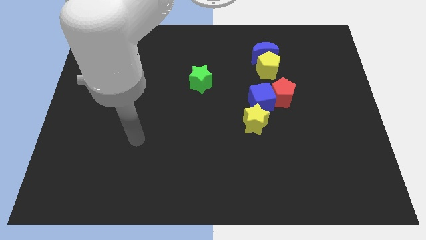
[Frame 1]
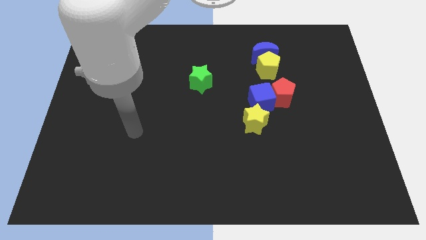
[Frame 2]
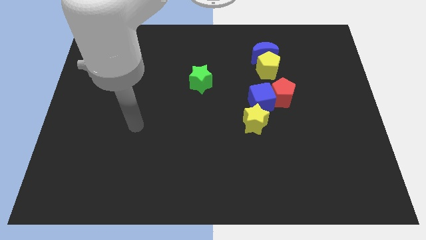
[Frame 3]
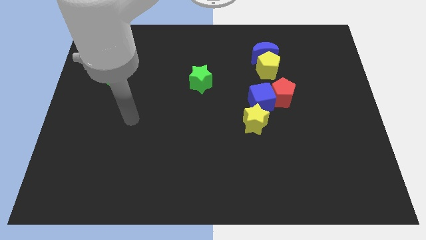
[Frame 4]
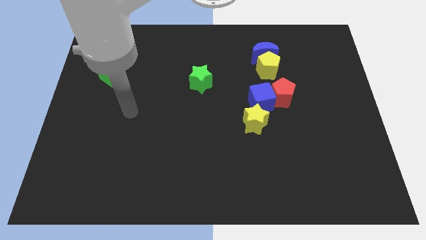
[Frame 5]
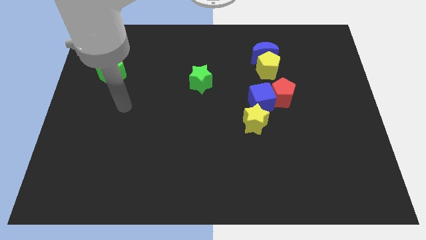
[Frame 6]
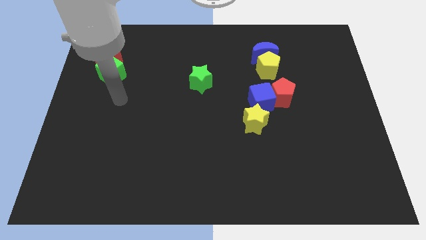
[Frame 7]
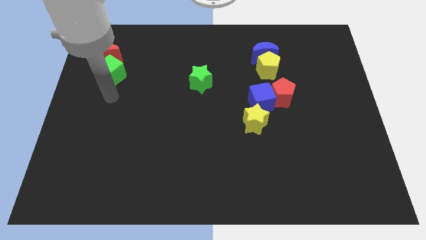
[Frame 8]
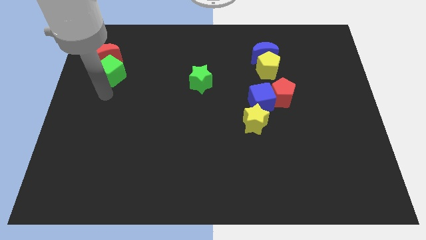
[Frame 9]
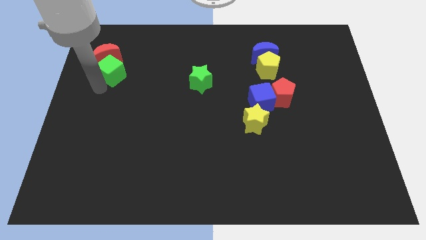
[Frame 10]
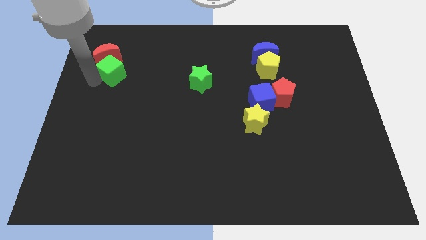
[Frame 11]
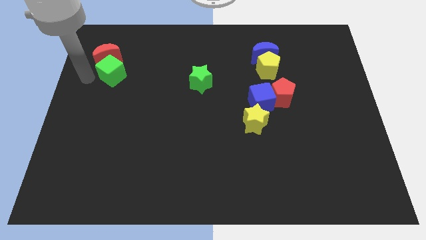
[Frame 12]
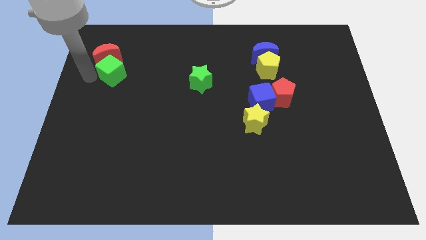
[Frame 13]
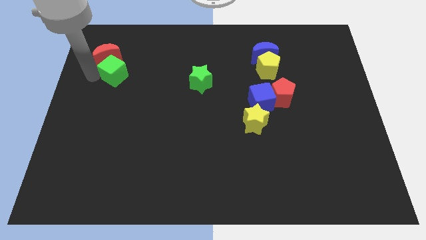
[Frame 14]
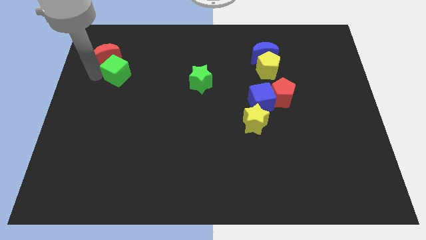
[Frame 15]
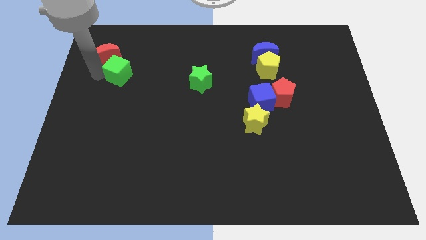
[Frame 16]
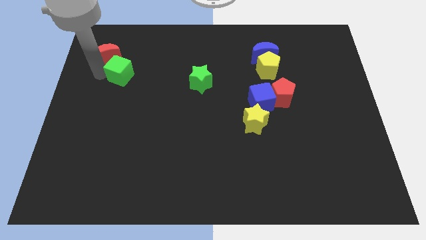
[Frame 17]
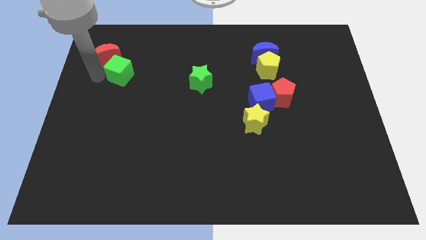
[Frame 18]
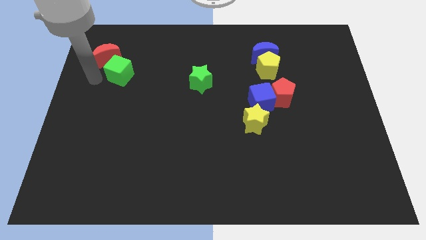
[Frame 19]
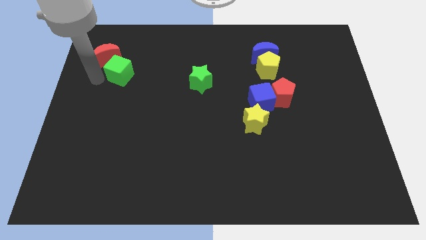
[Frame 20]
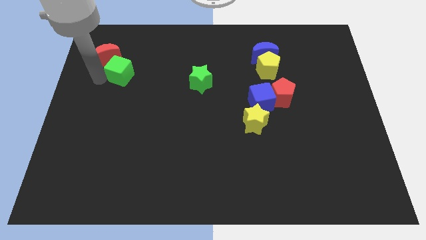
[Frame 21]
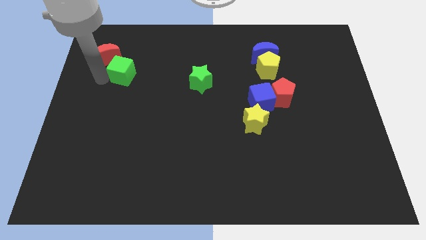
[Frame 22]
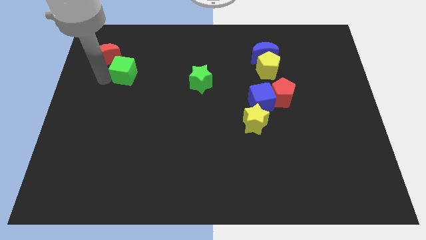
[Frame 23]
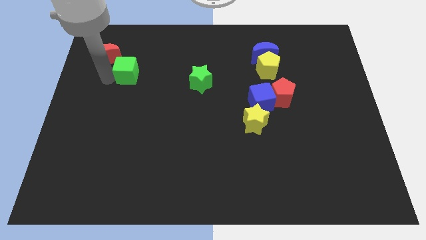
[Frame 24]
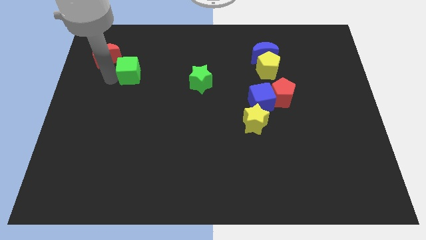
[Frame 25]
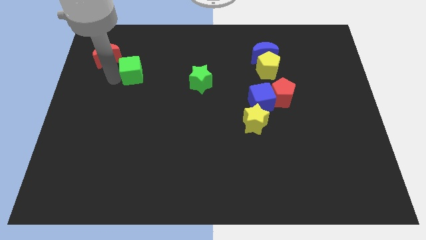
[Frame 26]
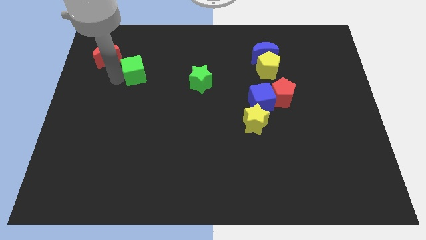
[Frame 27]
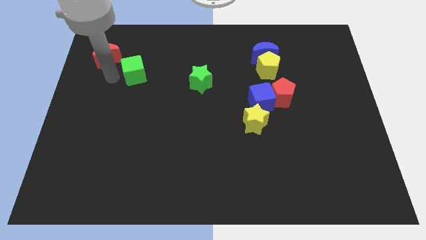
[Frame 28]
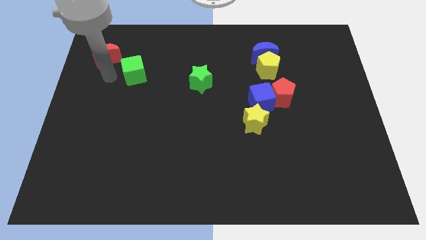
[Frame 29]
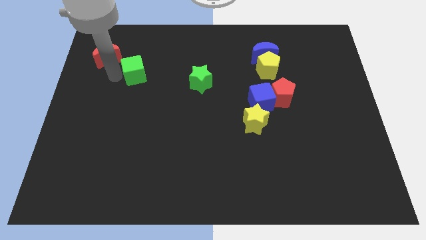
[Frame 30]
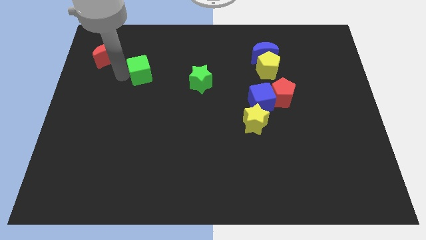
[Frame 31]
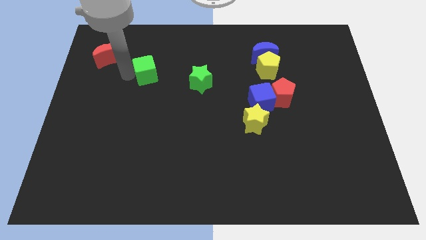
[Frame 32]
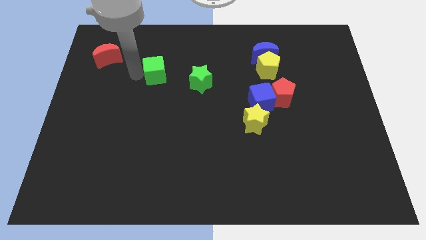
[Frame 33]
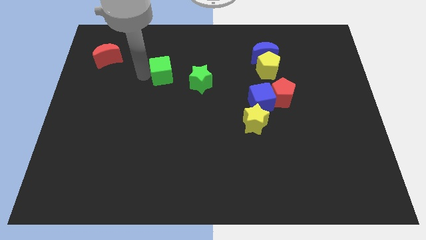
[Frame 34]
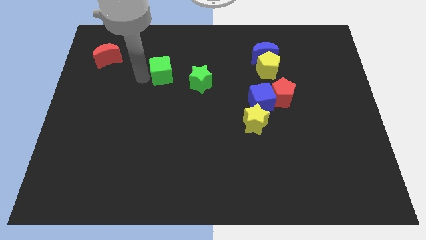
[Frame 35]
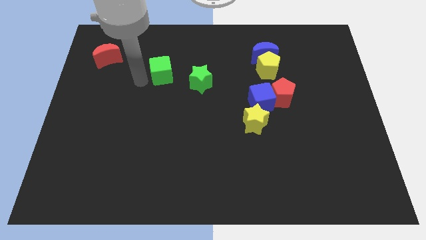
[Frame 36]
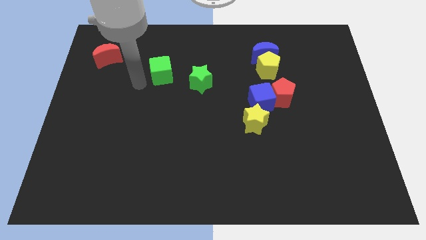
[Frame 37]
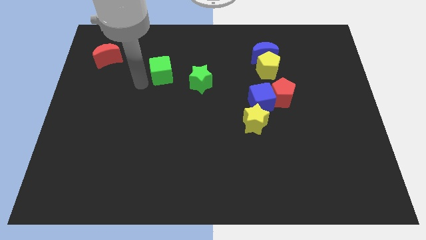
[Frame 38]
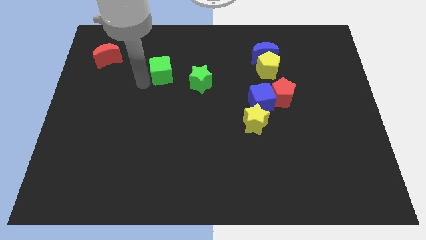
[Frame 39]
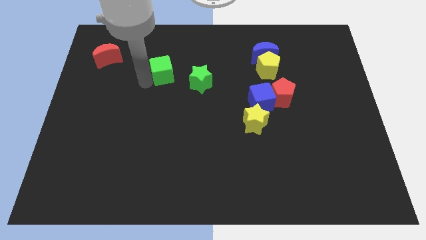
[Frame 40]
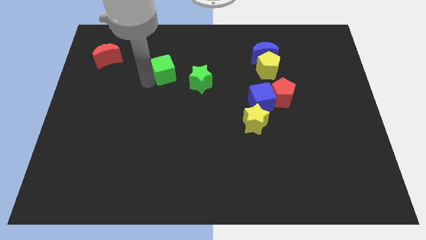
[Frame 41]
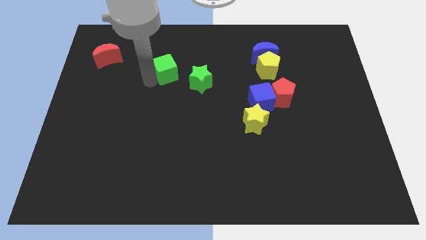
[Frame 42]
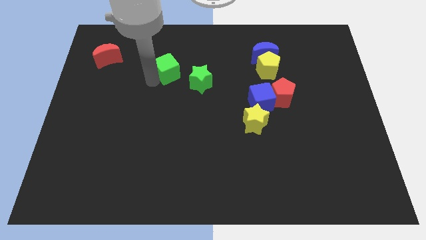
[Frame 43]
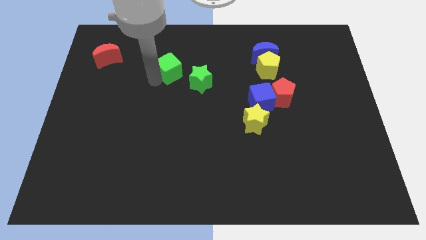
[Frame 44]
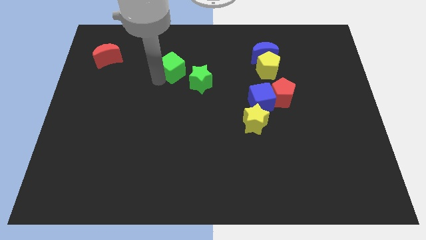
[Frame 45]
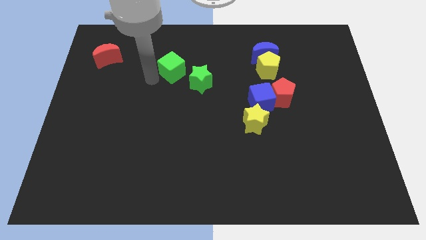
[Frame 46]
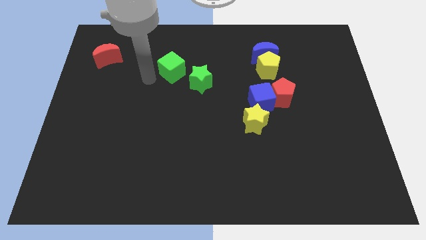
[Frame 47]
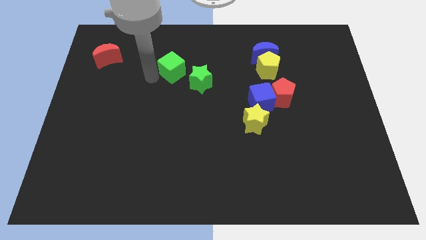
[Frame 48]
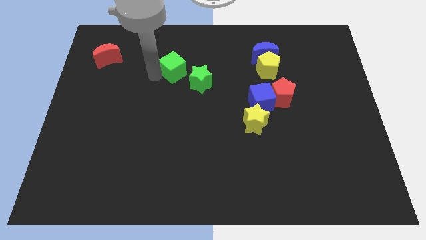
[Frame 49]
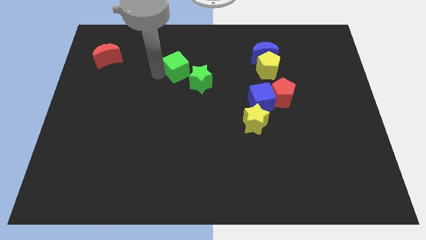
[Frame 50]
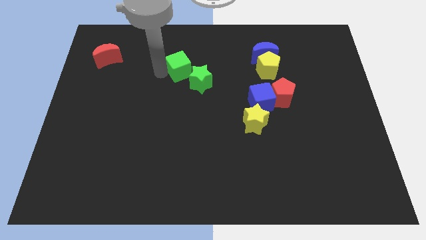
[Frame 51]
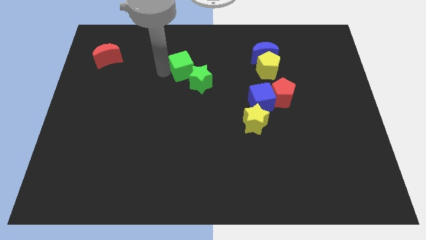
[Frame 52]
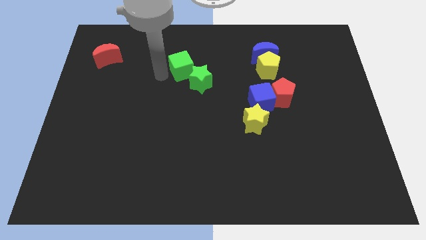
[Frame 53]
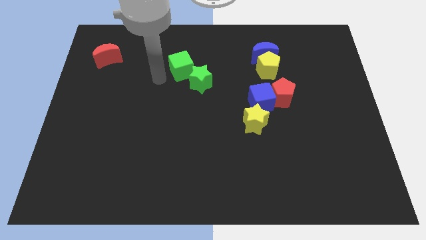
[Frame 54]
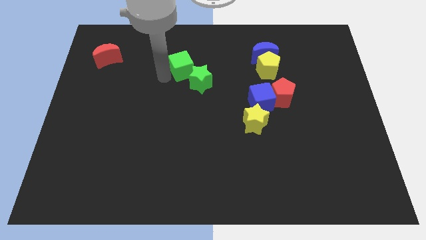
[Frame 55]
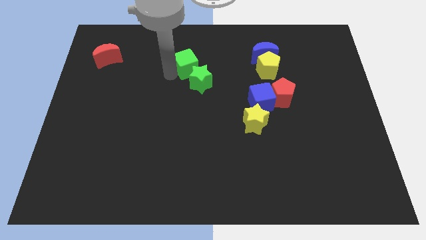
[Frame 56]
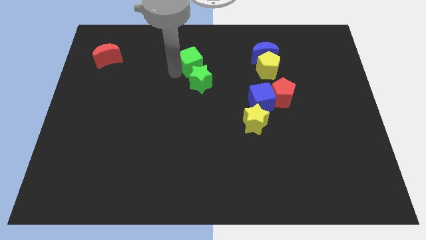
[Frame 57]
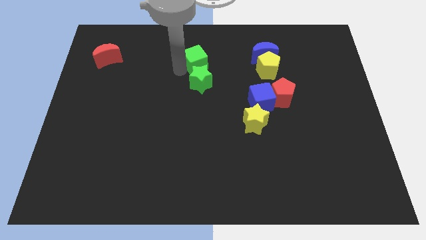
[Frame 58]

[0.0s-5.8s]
move the green cube to the right

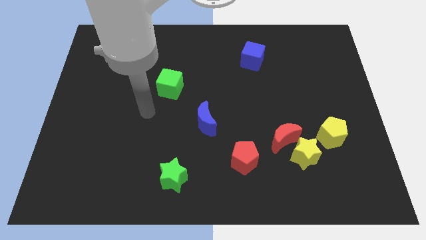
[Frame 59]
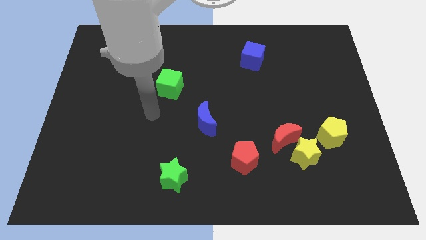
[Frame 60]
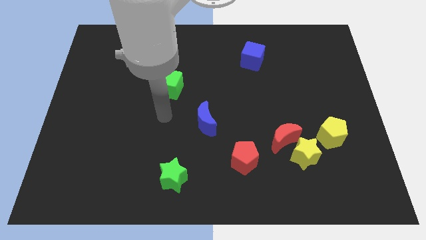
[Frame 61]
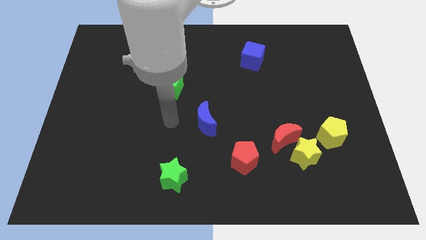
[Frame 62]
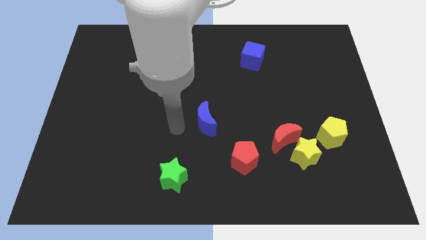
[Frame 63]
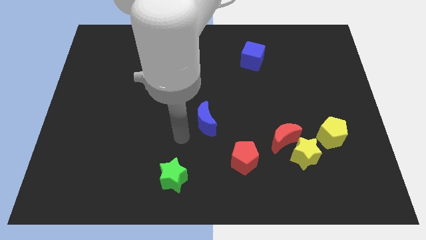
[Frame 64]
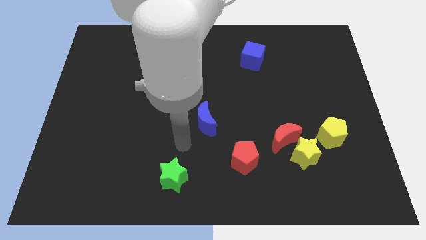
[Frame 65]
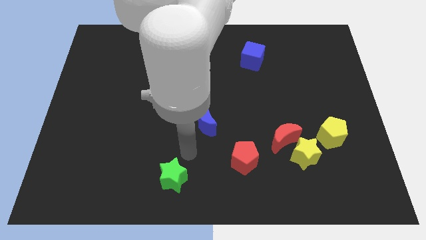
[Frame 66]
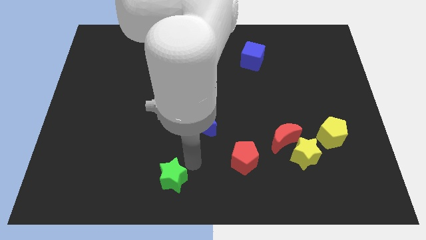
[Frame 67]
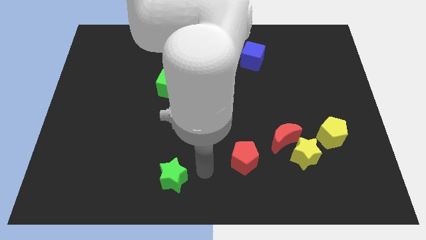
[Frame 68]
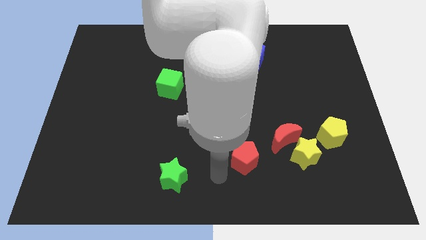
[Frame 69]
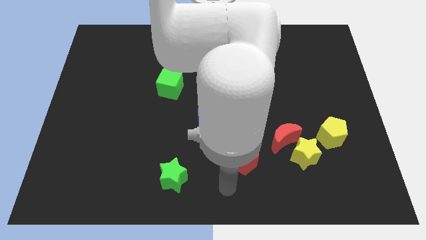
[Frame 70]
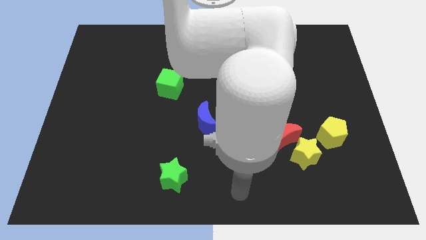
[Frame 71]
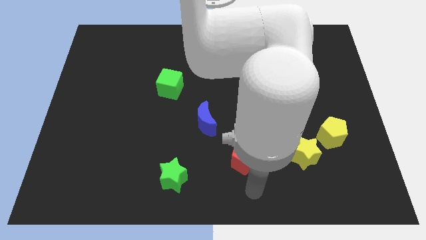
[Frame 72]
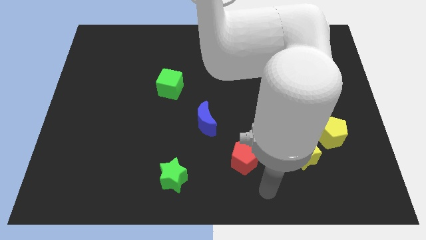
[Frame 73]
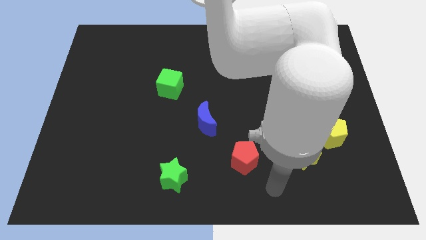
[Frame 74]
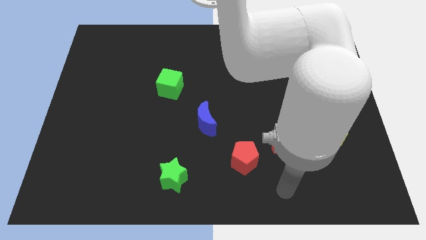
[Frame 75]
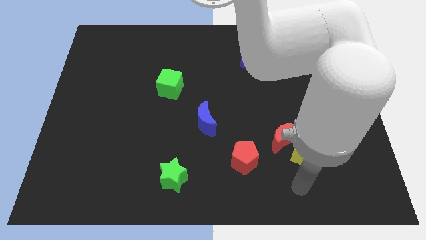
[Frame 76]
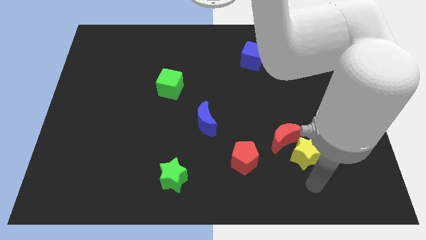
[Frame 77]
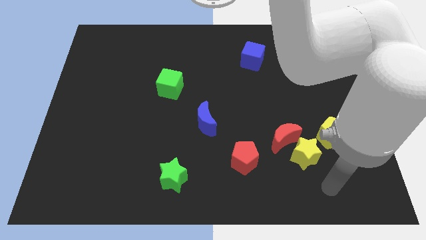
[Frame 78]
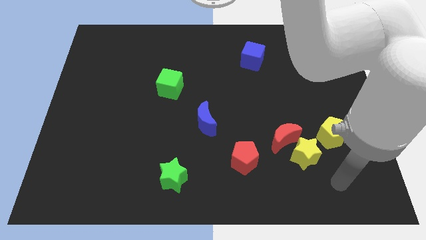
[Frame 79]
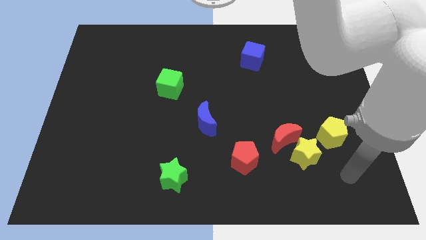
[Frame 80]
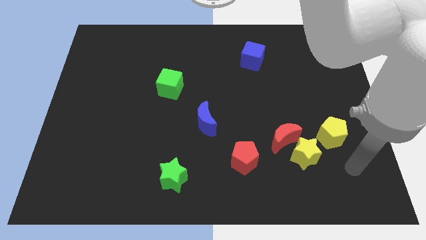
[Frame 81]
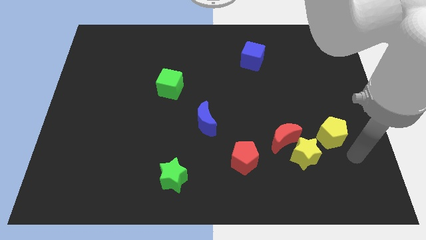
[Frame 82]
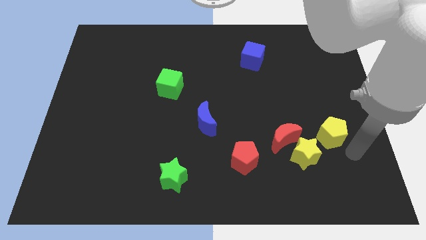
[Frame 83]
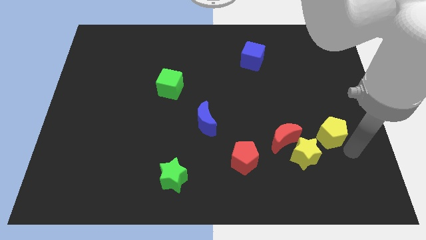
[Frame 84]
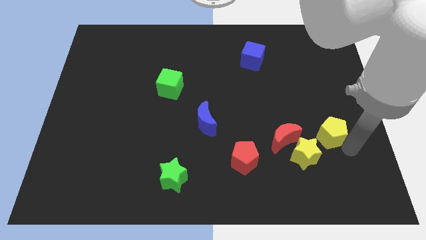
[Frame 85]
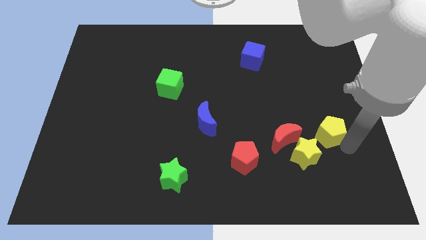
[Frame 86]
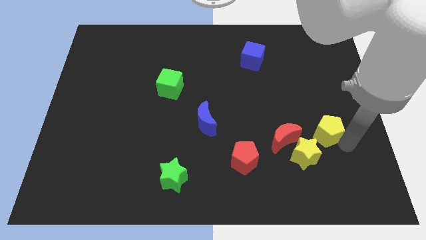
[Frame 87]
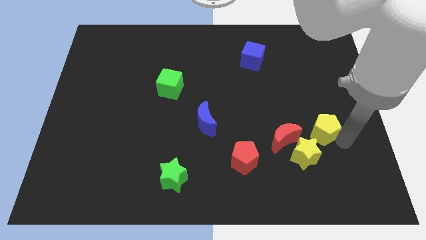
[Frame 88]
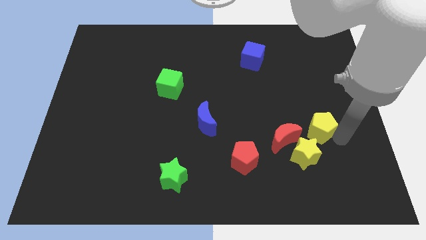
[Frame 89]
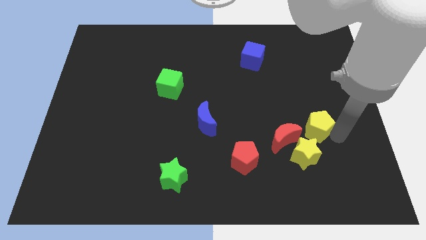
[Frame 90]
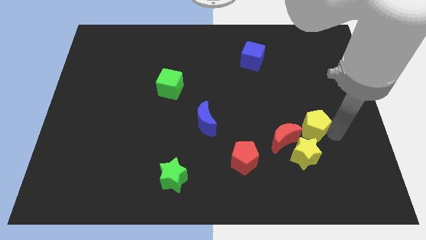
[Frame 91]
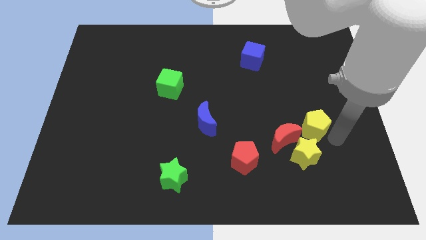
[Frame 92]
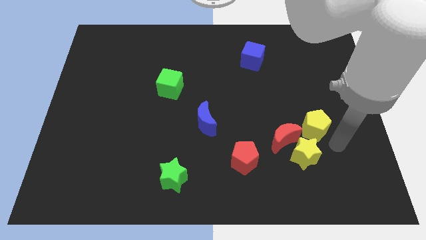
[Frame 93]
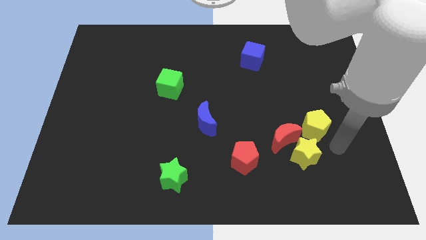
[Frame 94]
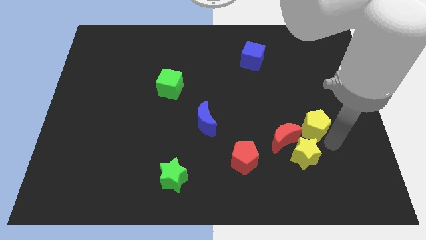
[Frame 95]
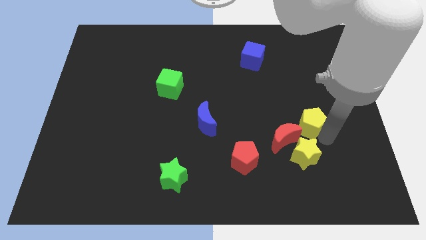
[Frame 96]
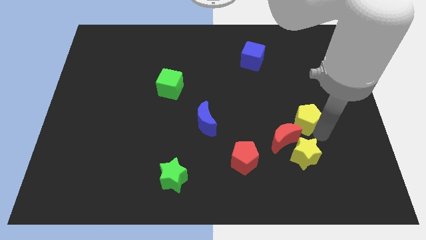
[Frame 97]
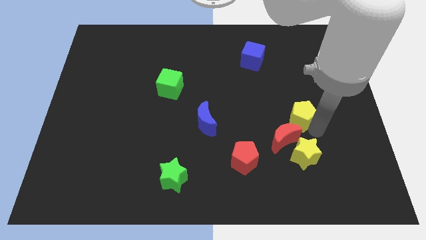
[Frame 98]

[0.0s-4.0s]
slightly push the yellow pentagon upwards and left
